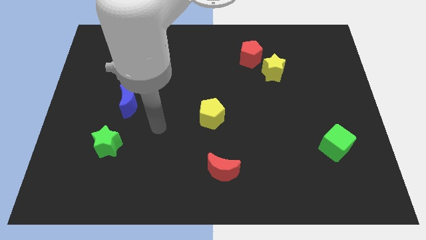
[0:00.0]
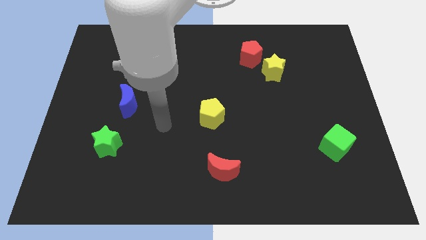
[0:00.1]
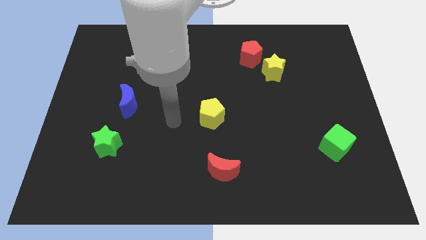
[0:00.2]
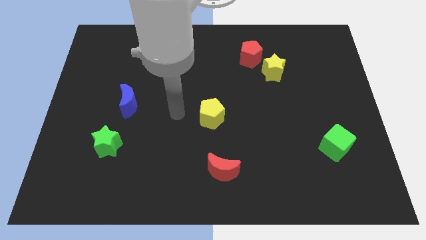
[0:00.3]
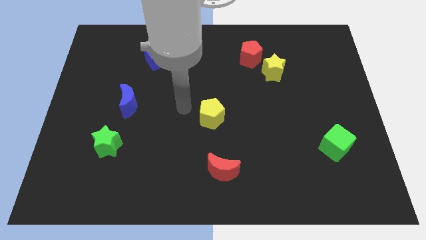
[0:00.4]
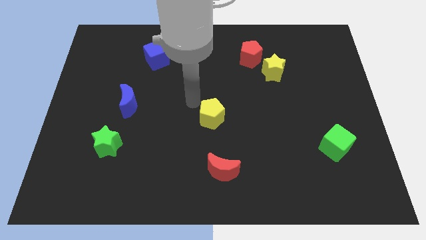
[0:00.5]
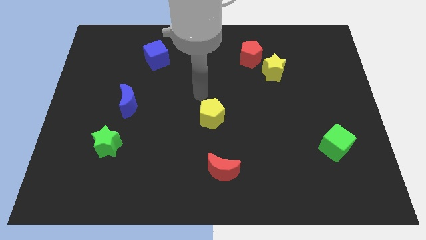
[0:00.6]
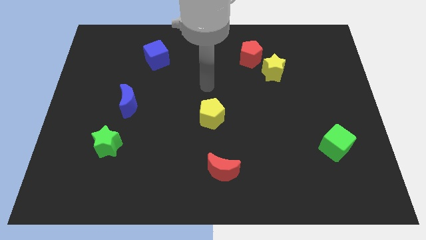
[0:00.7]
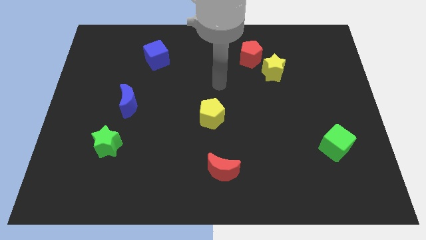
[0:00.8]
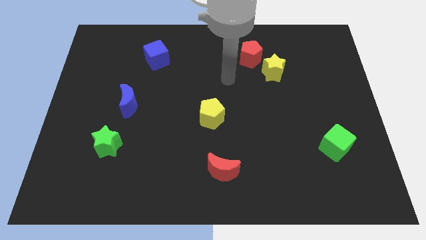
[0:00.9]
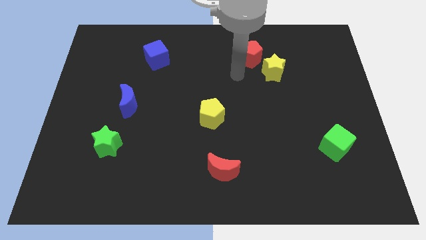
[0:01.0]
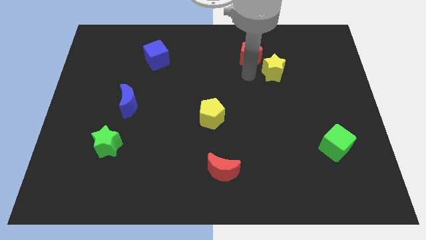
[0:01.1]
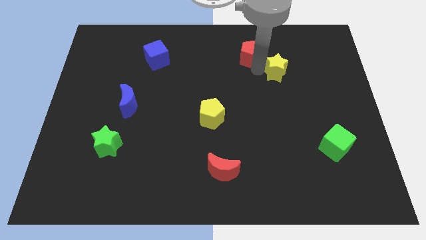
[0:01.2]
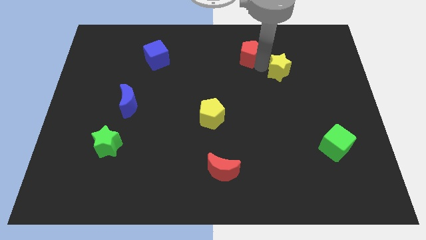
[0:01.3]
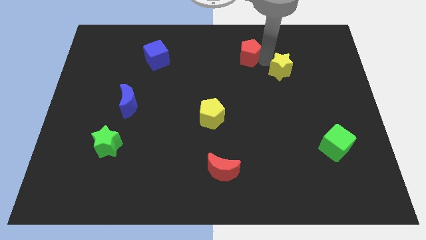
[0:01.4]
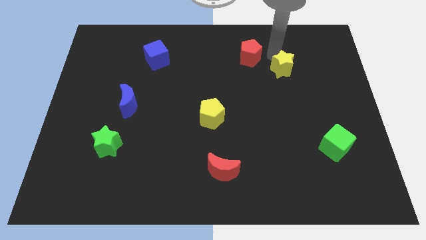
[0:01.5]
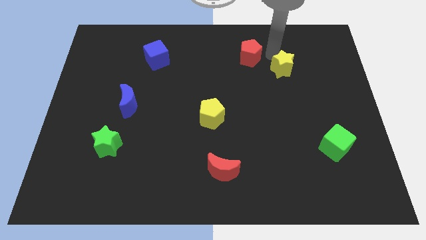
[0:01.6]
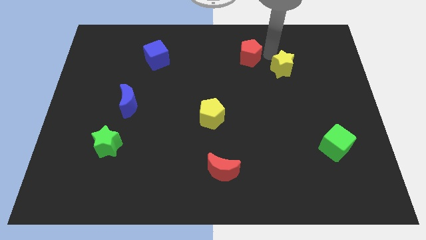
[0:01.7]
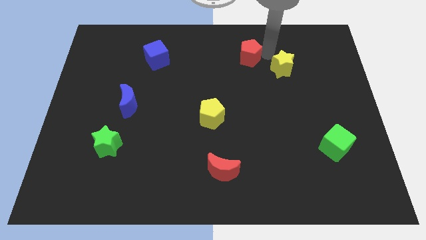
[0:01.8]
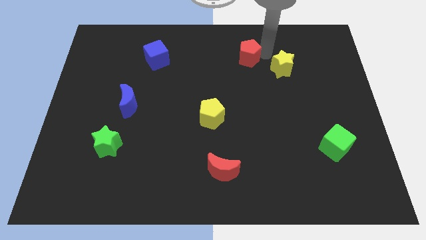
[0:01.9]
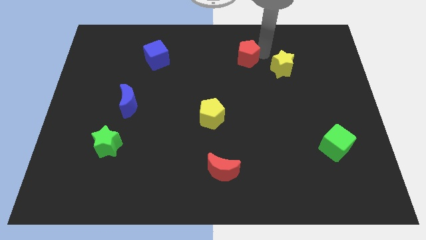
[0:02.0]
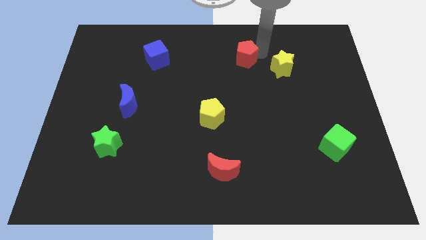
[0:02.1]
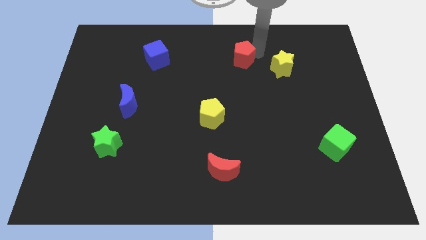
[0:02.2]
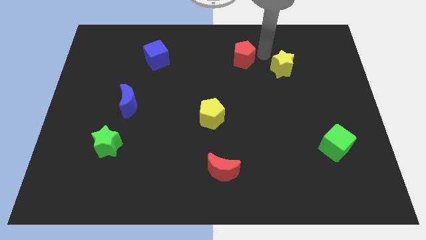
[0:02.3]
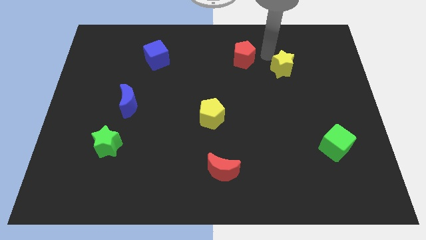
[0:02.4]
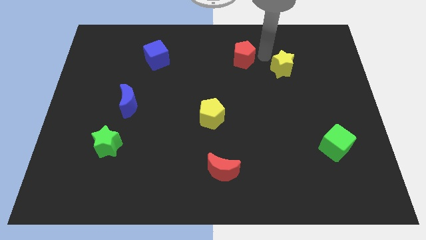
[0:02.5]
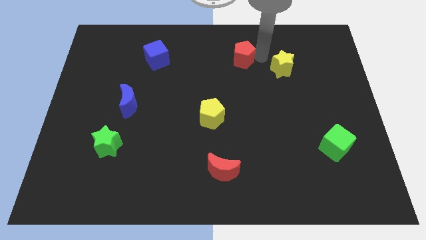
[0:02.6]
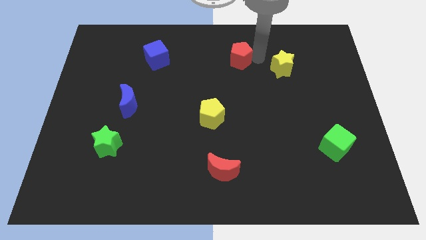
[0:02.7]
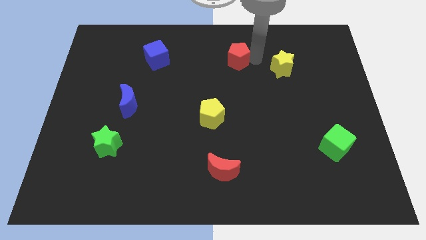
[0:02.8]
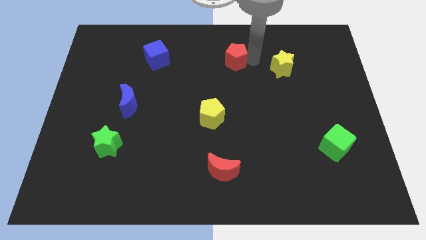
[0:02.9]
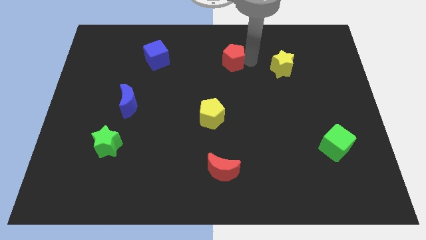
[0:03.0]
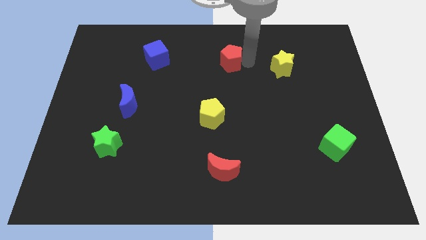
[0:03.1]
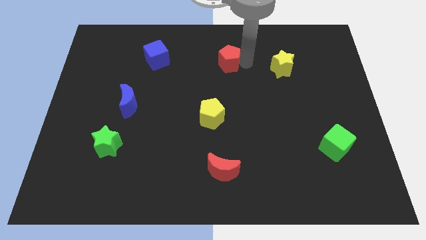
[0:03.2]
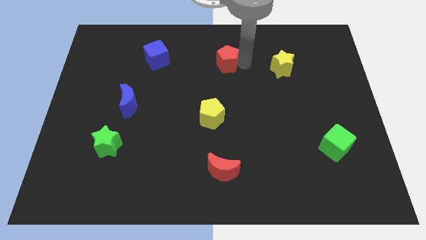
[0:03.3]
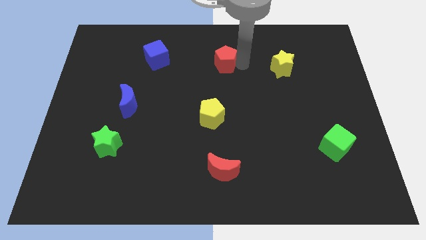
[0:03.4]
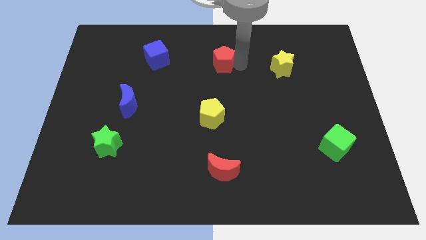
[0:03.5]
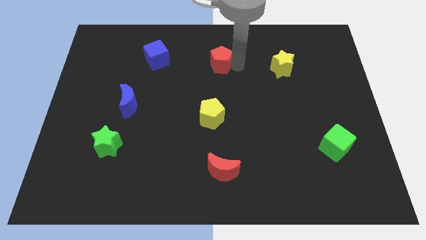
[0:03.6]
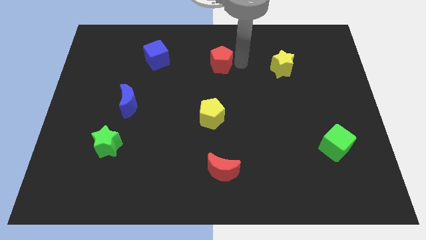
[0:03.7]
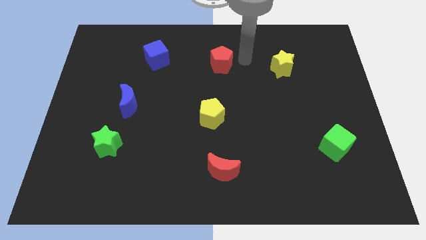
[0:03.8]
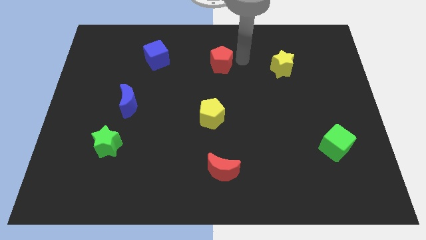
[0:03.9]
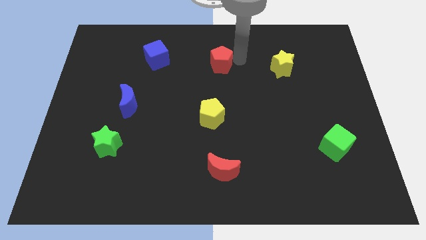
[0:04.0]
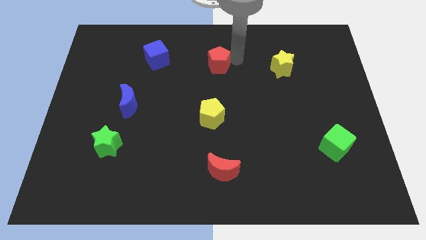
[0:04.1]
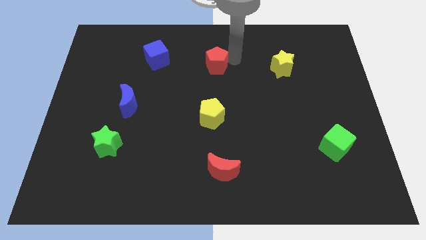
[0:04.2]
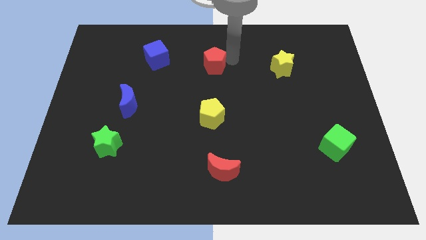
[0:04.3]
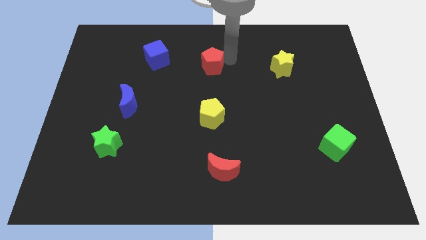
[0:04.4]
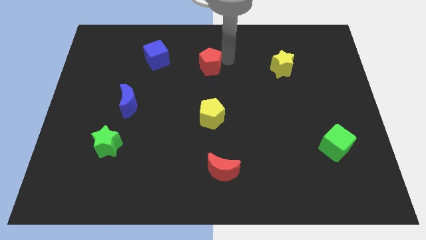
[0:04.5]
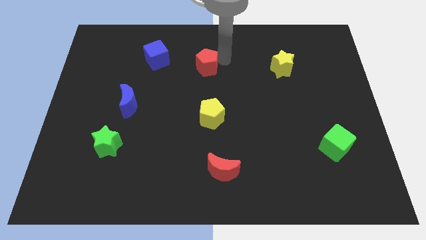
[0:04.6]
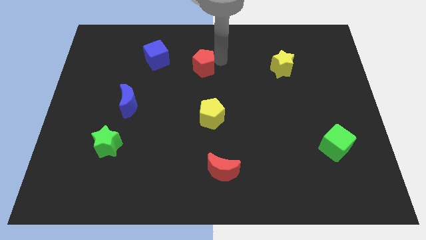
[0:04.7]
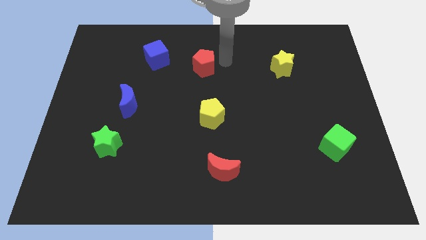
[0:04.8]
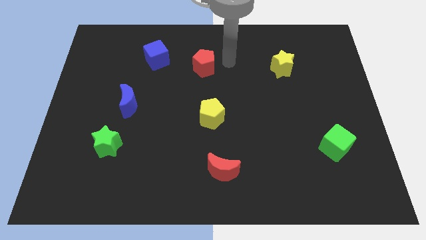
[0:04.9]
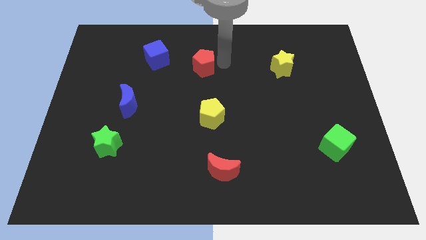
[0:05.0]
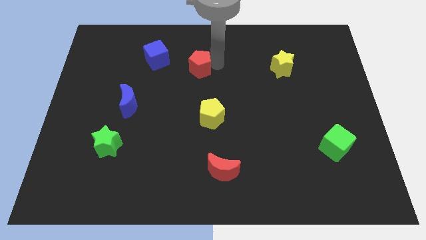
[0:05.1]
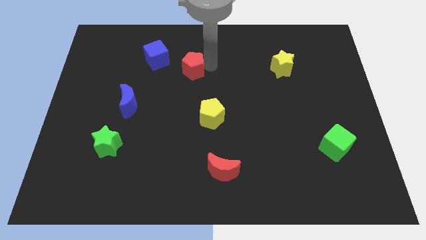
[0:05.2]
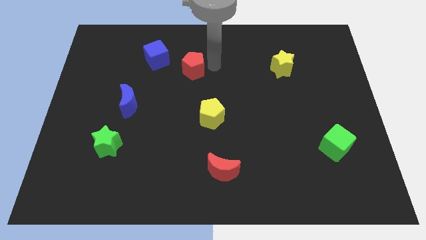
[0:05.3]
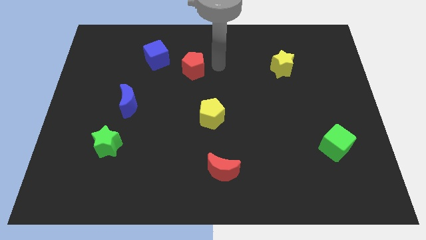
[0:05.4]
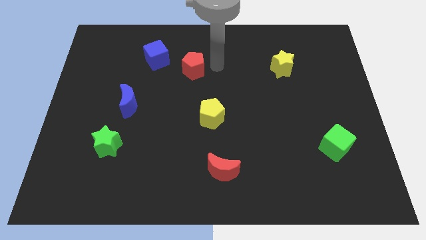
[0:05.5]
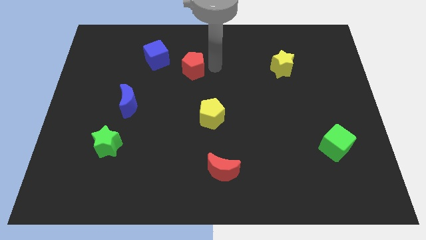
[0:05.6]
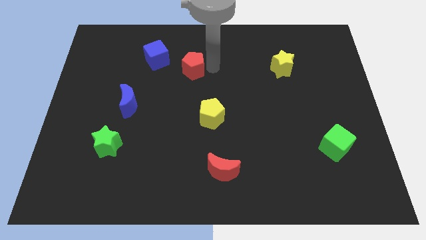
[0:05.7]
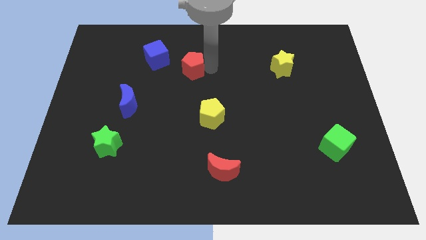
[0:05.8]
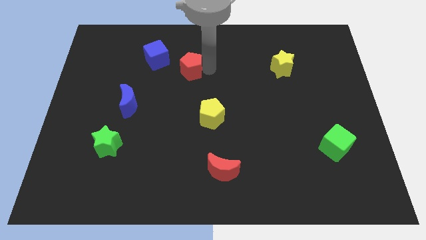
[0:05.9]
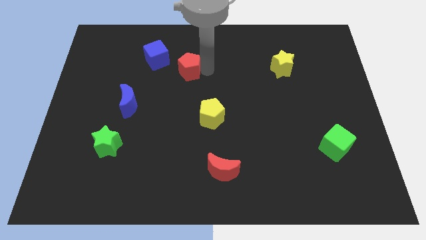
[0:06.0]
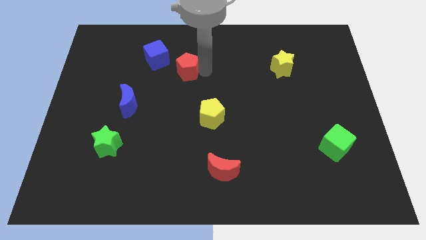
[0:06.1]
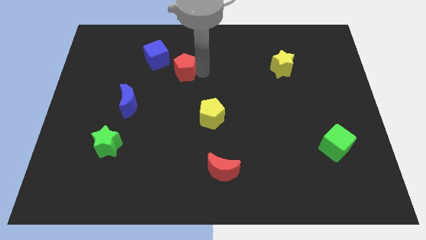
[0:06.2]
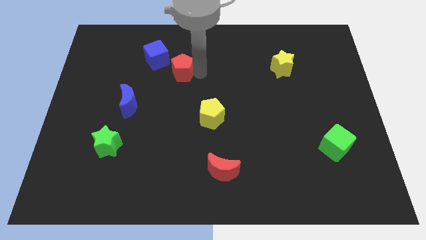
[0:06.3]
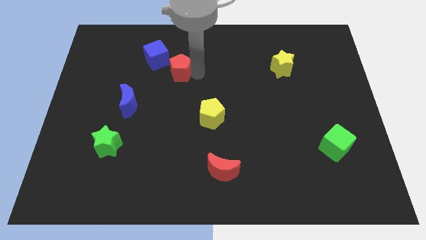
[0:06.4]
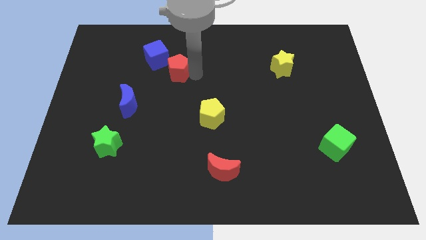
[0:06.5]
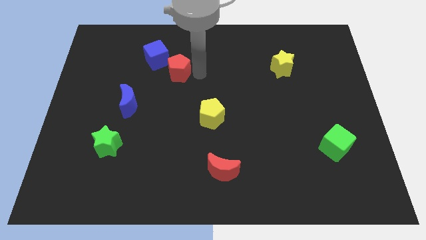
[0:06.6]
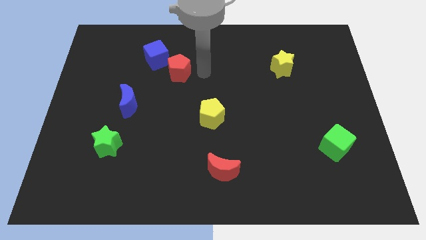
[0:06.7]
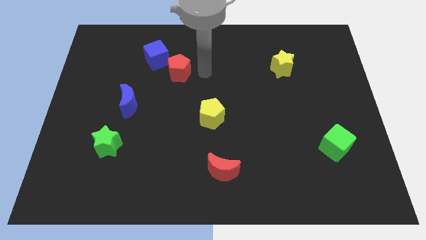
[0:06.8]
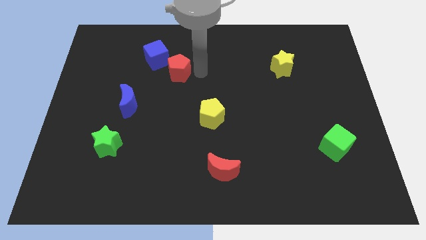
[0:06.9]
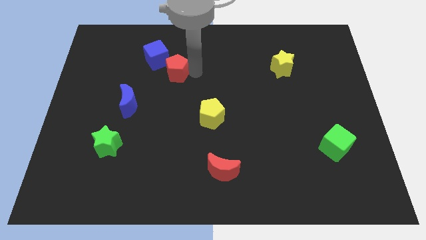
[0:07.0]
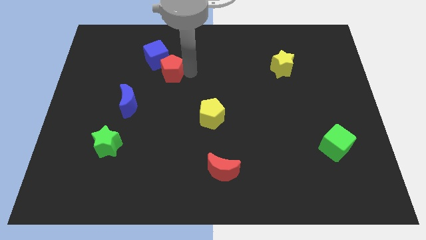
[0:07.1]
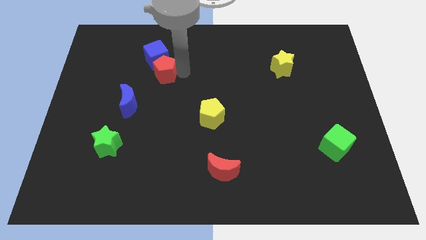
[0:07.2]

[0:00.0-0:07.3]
move the red pentagon left

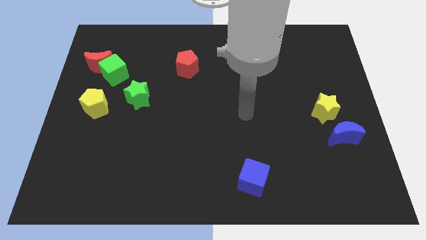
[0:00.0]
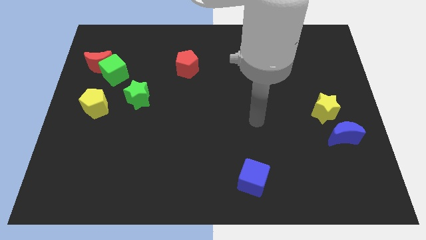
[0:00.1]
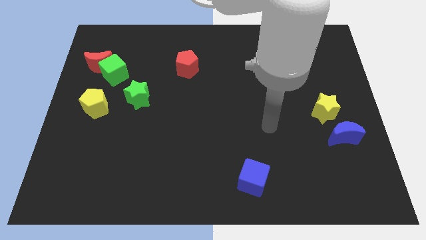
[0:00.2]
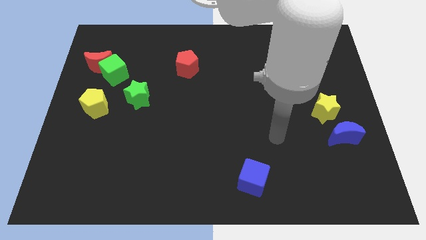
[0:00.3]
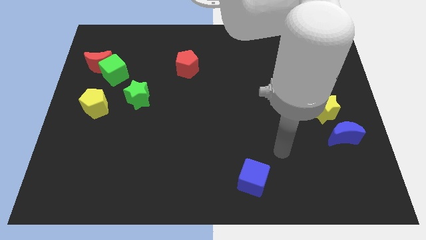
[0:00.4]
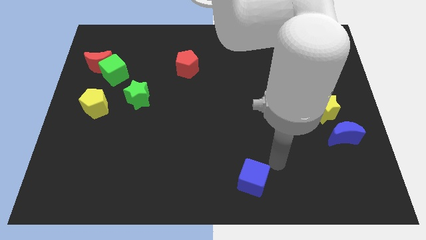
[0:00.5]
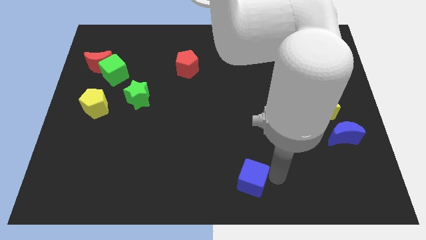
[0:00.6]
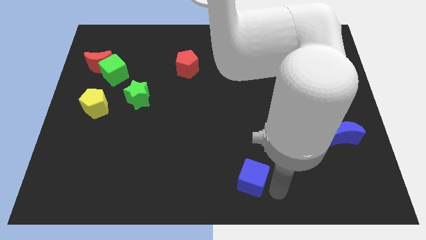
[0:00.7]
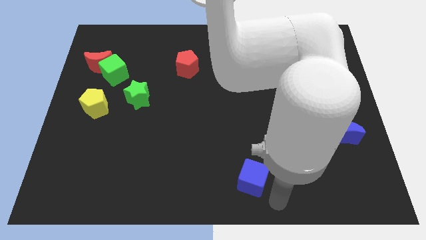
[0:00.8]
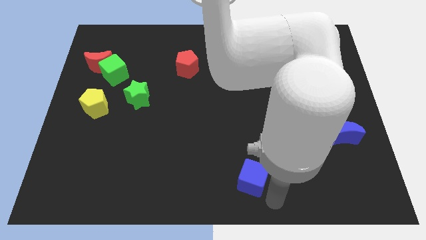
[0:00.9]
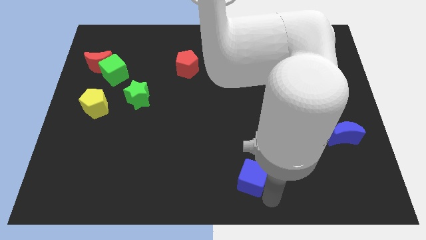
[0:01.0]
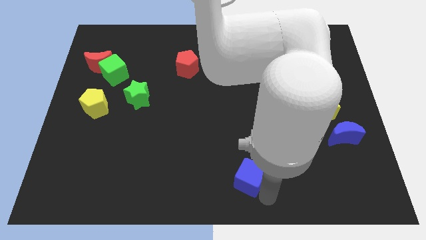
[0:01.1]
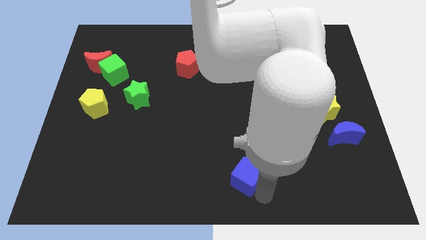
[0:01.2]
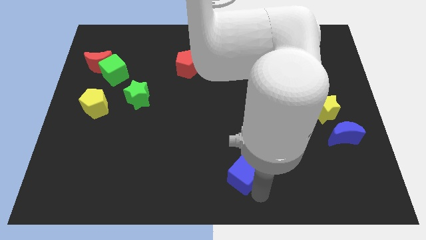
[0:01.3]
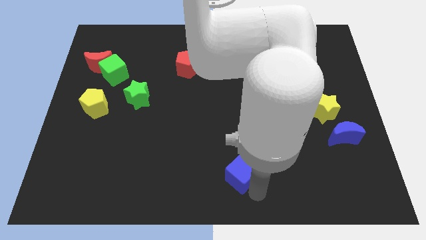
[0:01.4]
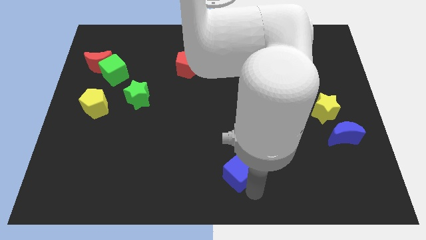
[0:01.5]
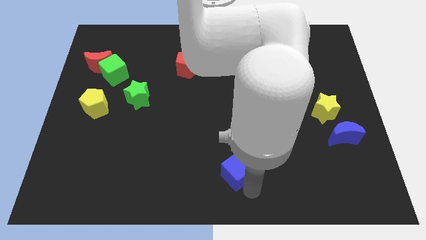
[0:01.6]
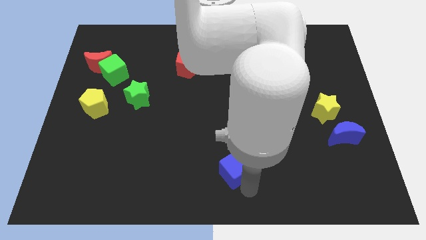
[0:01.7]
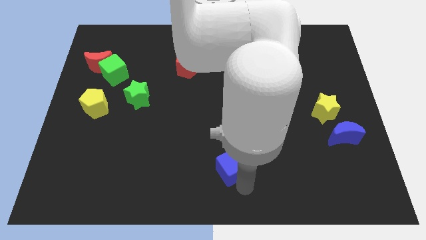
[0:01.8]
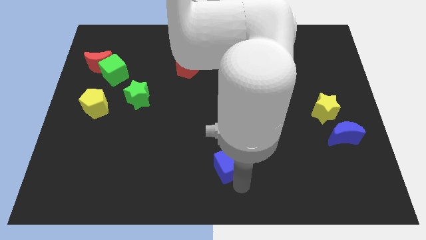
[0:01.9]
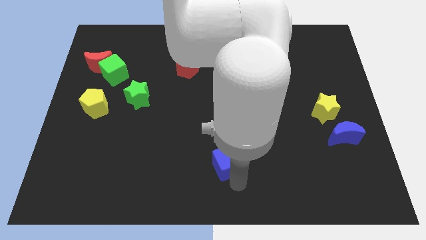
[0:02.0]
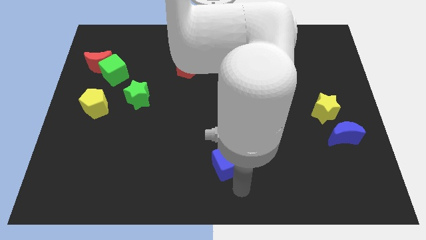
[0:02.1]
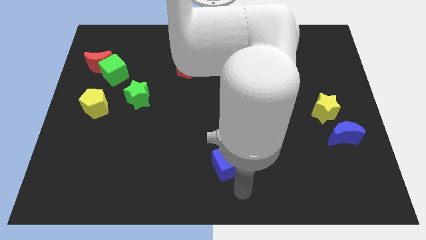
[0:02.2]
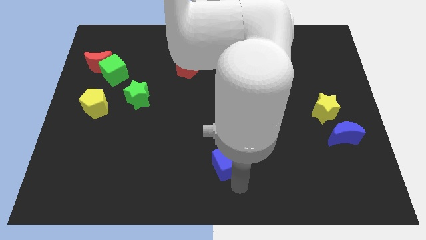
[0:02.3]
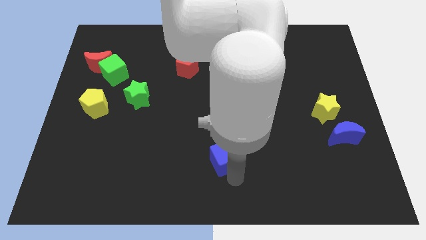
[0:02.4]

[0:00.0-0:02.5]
move the blue cube slightly up and then left
